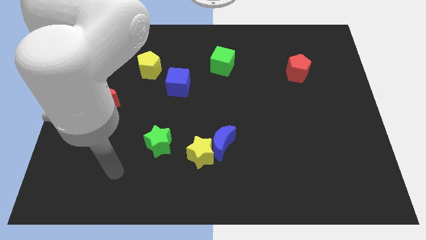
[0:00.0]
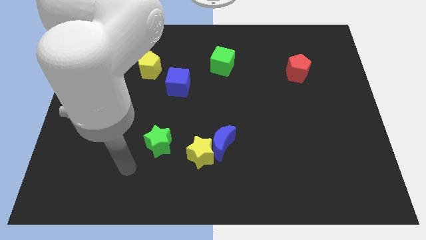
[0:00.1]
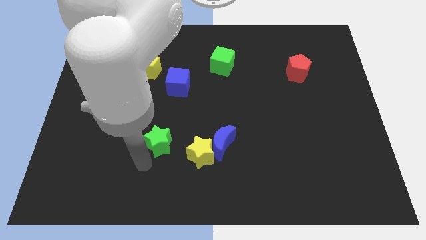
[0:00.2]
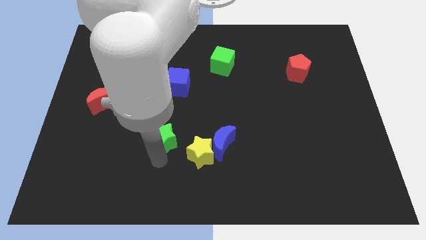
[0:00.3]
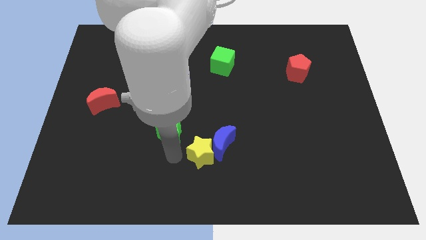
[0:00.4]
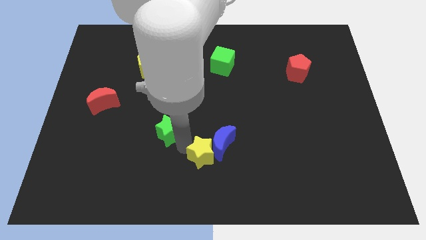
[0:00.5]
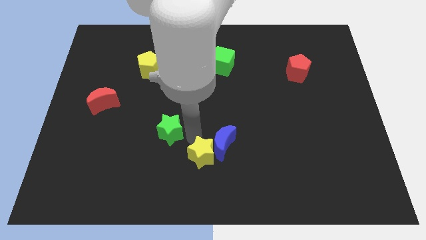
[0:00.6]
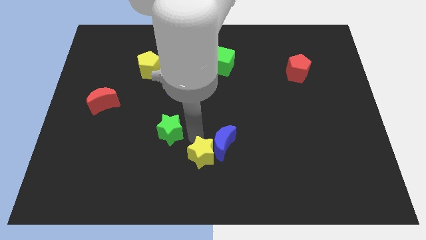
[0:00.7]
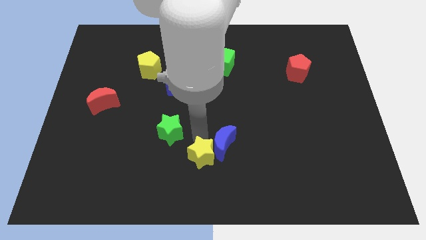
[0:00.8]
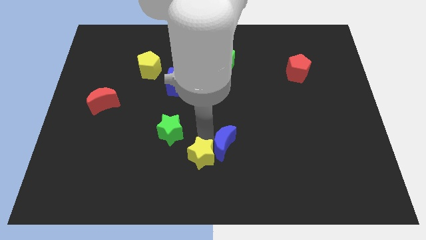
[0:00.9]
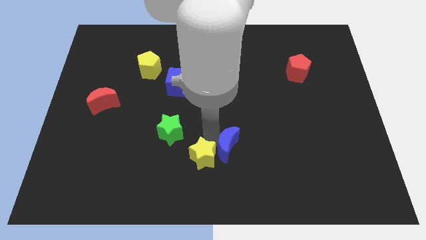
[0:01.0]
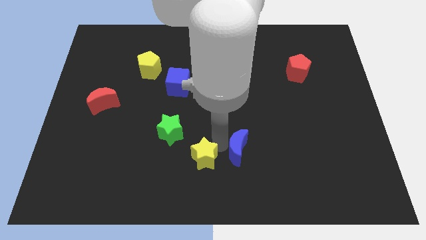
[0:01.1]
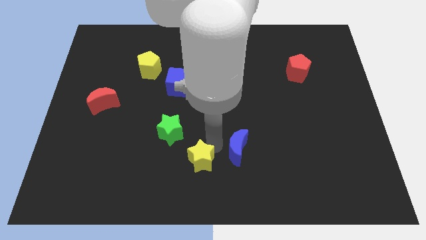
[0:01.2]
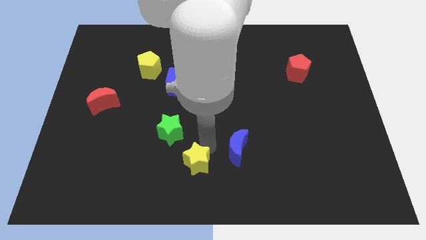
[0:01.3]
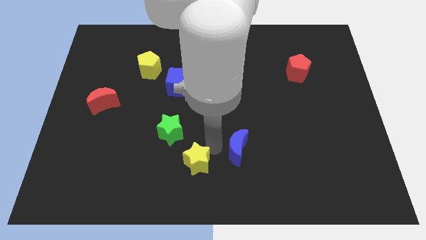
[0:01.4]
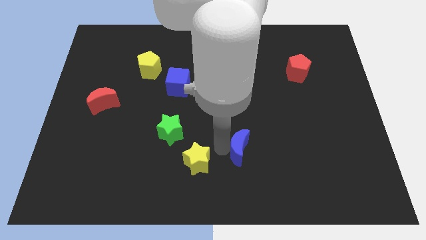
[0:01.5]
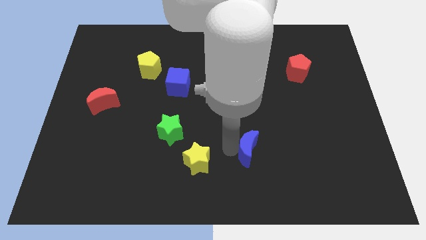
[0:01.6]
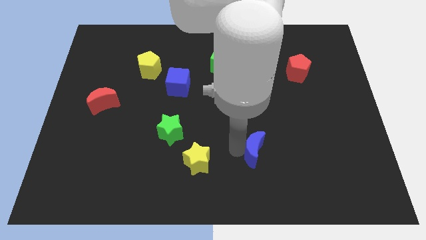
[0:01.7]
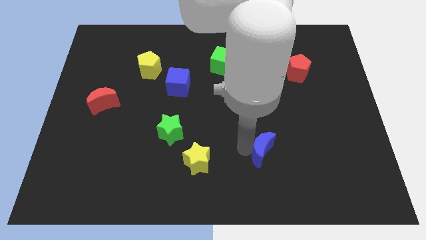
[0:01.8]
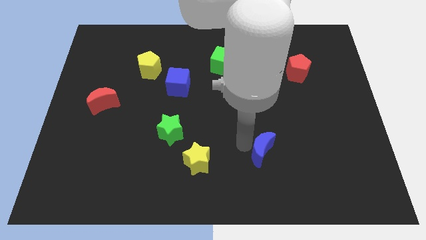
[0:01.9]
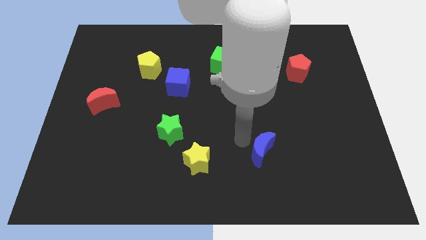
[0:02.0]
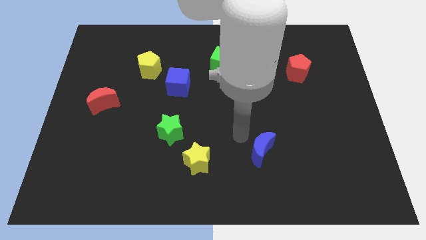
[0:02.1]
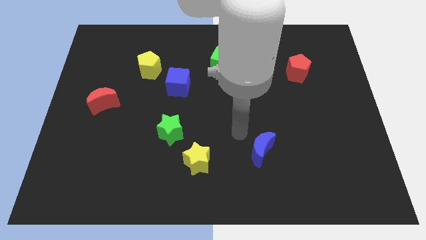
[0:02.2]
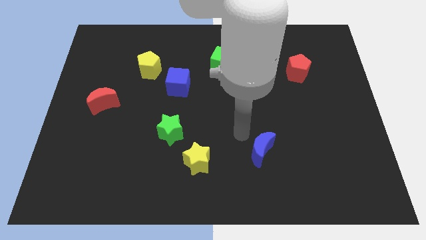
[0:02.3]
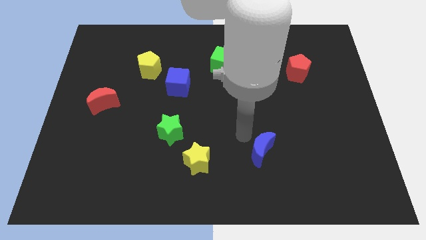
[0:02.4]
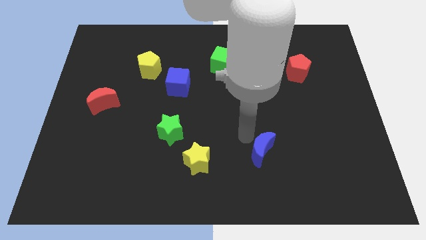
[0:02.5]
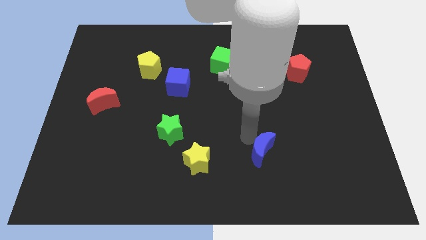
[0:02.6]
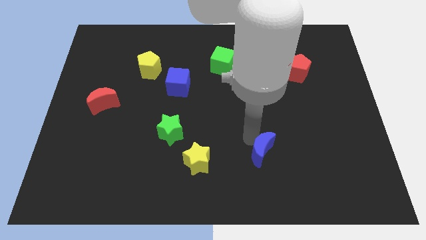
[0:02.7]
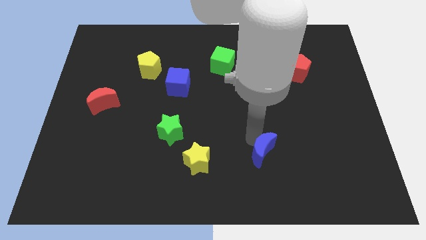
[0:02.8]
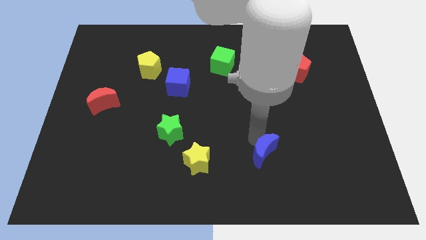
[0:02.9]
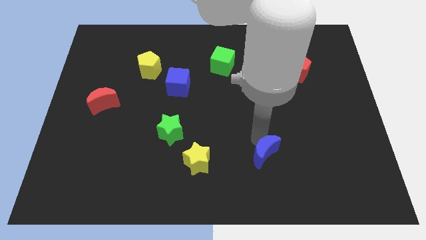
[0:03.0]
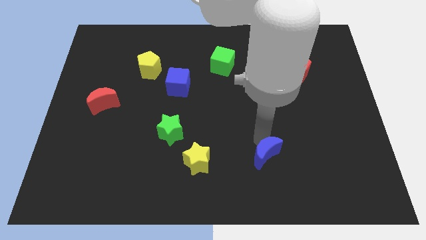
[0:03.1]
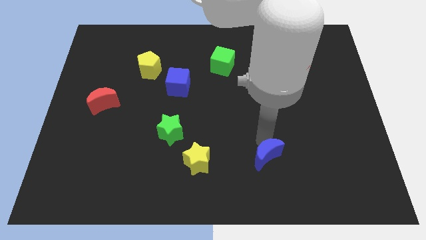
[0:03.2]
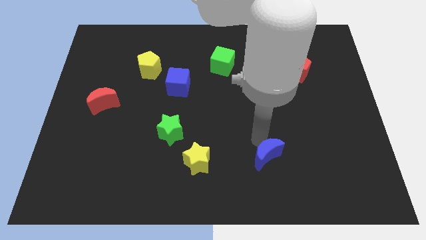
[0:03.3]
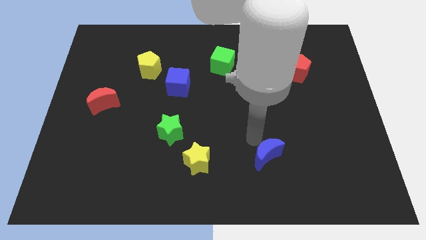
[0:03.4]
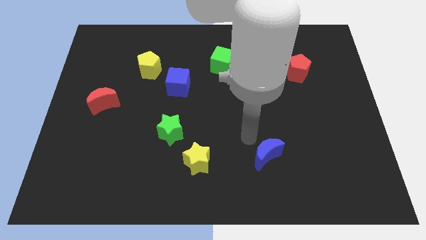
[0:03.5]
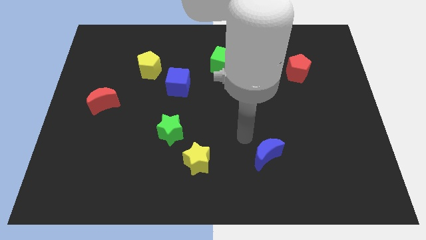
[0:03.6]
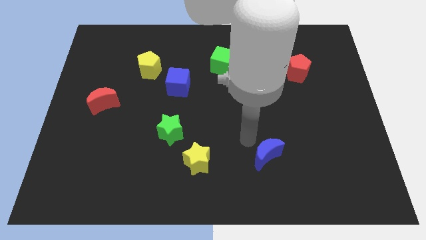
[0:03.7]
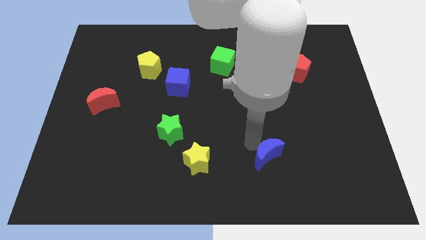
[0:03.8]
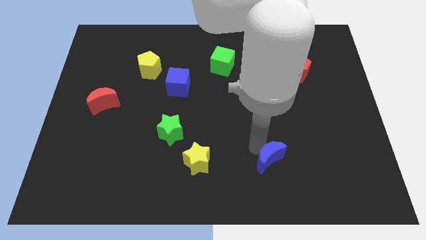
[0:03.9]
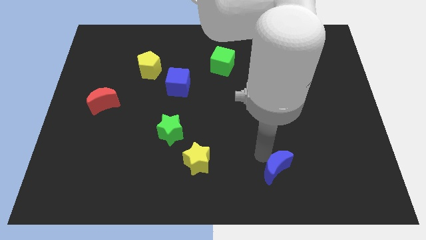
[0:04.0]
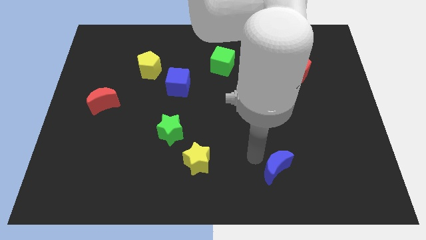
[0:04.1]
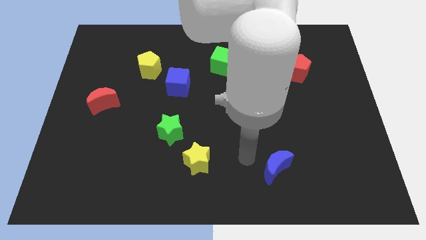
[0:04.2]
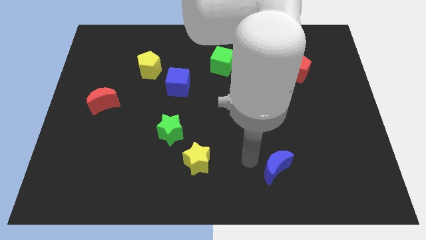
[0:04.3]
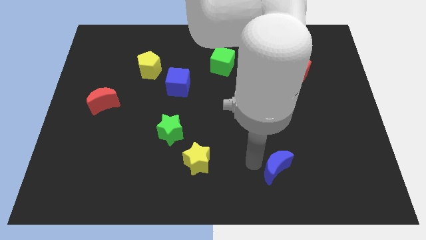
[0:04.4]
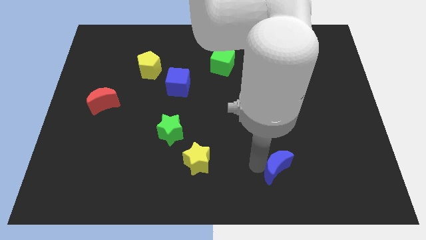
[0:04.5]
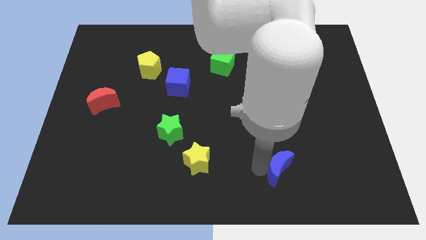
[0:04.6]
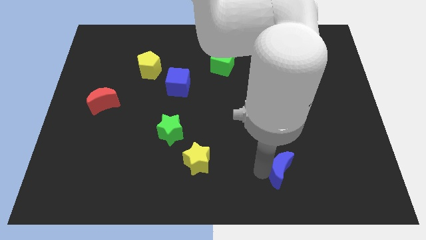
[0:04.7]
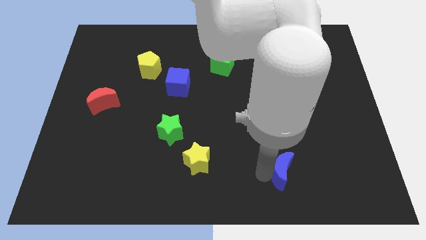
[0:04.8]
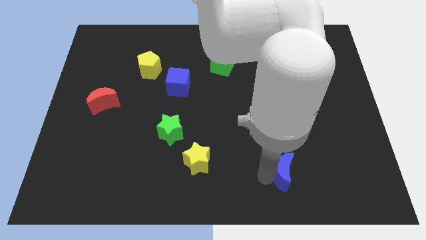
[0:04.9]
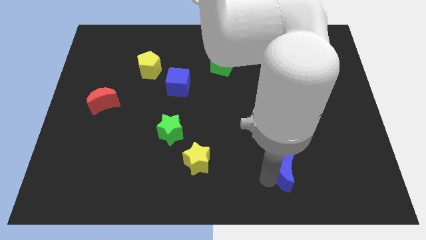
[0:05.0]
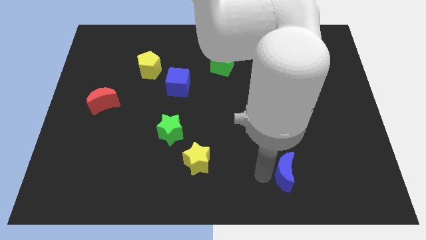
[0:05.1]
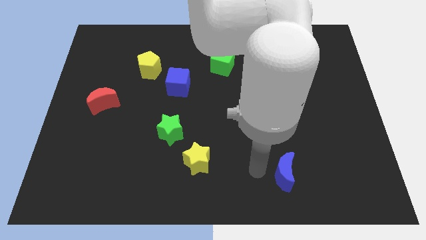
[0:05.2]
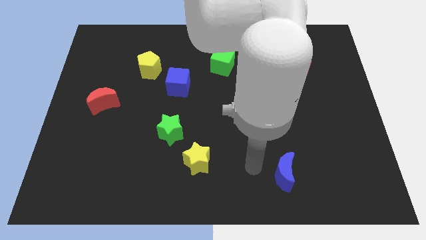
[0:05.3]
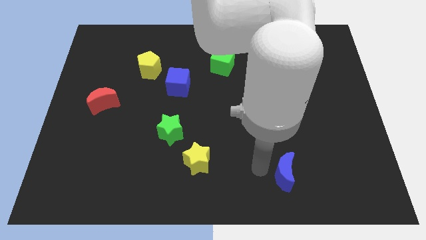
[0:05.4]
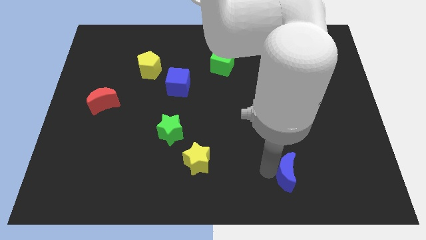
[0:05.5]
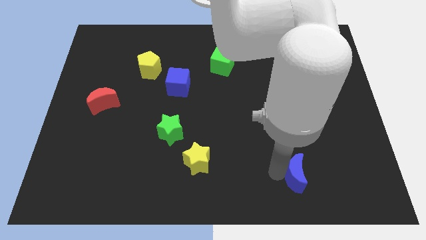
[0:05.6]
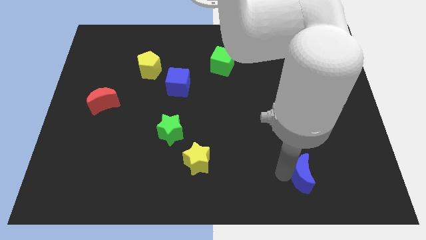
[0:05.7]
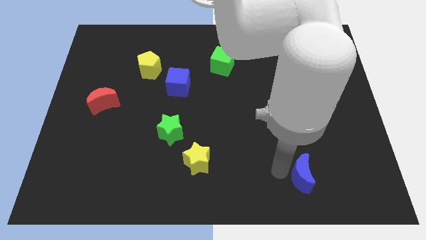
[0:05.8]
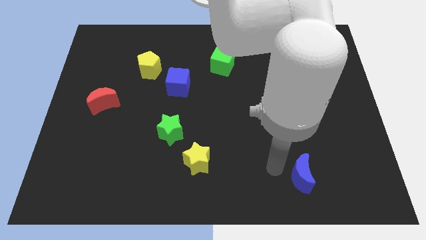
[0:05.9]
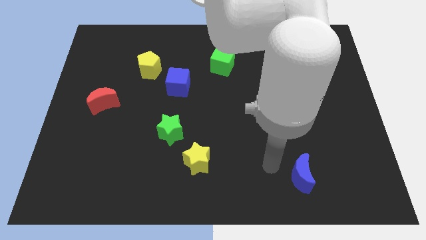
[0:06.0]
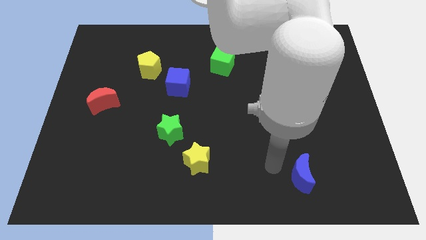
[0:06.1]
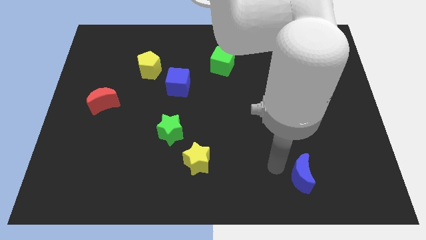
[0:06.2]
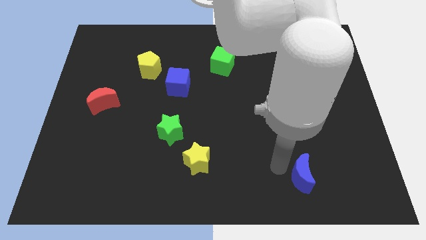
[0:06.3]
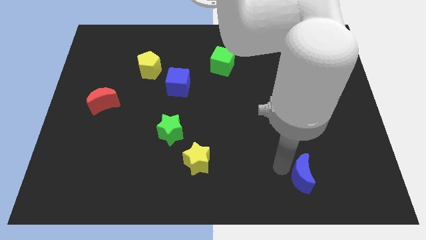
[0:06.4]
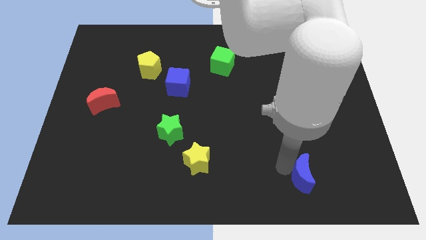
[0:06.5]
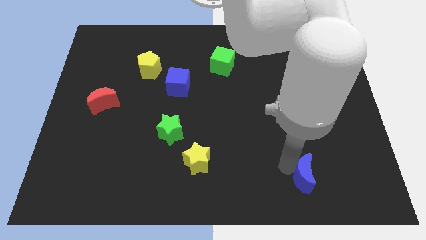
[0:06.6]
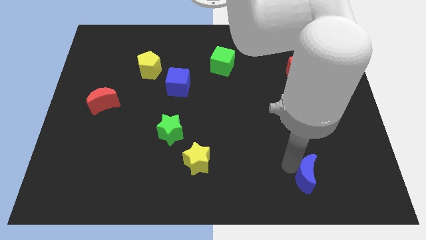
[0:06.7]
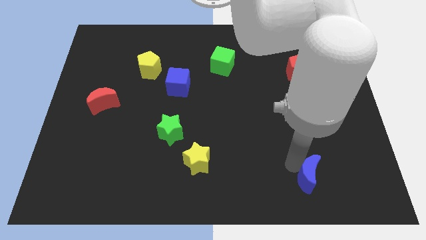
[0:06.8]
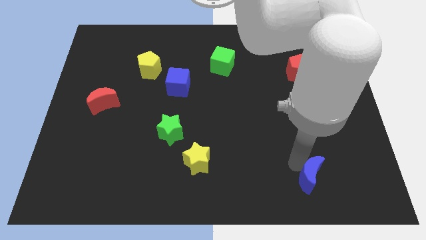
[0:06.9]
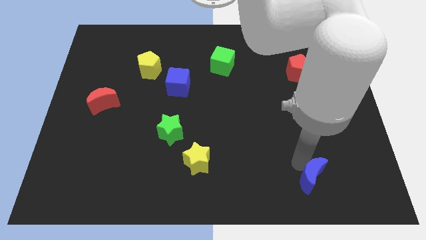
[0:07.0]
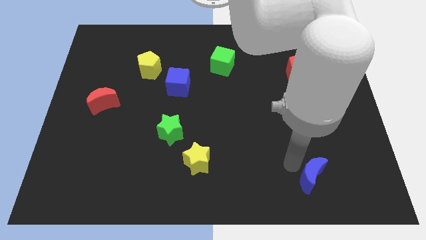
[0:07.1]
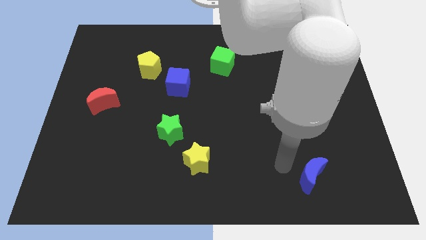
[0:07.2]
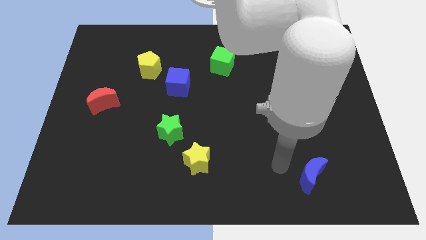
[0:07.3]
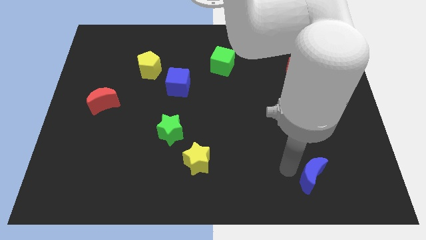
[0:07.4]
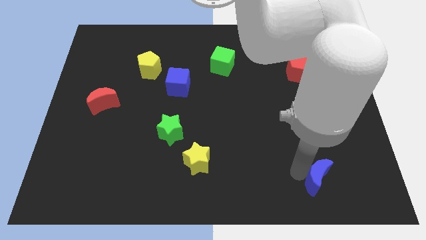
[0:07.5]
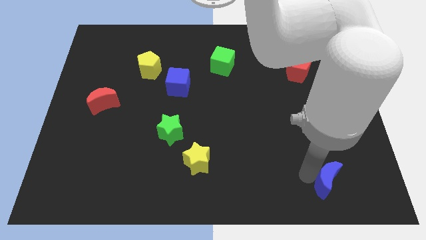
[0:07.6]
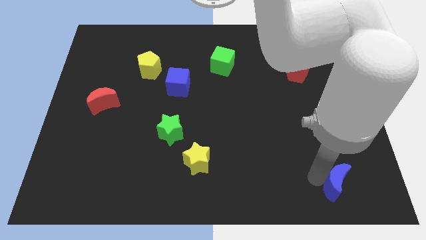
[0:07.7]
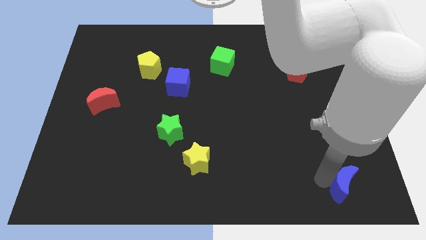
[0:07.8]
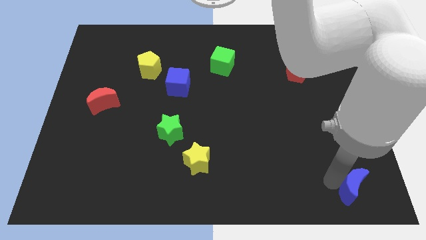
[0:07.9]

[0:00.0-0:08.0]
slide the blue moon to the bottom right of the board
